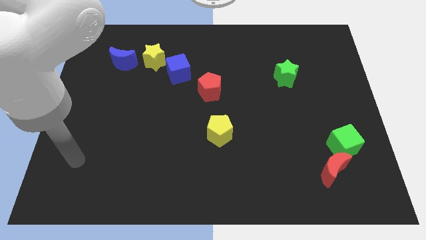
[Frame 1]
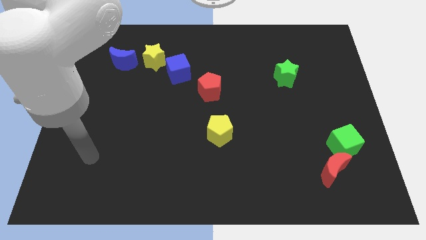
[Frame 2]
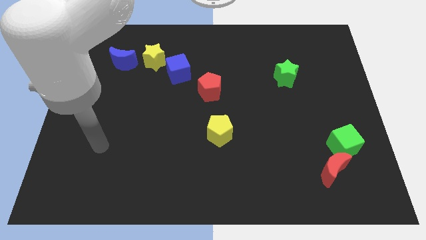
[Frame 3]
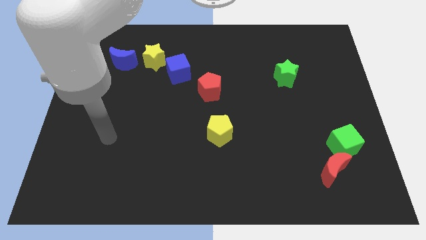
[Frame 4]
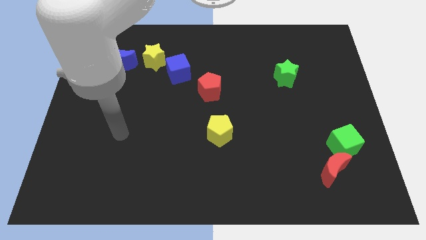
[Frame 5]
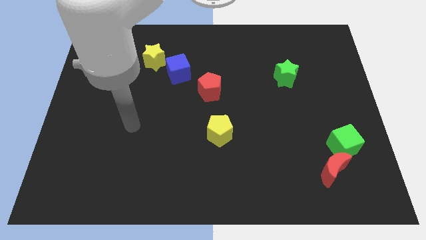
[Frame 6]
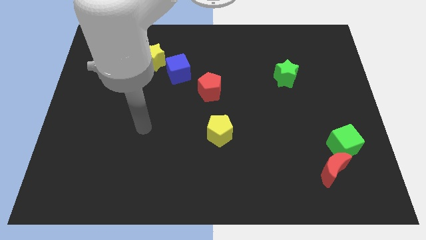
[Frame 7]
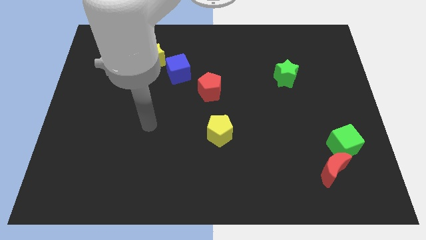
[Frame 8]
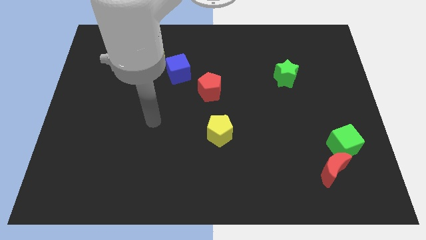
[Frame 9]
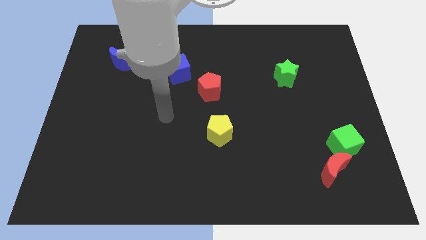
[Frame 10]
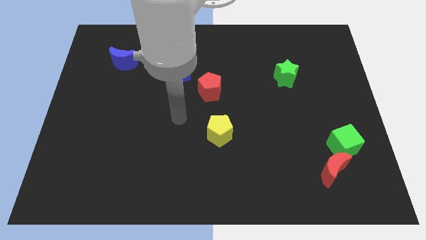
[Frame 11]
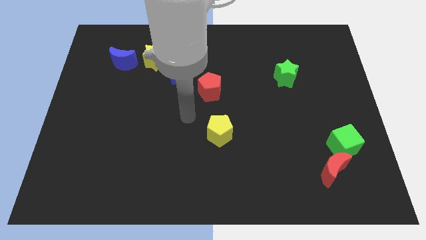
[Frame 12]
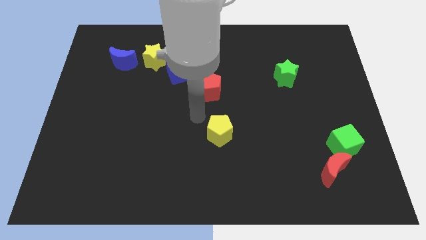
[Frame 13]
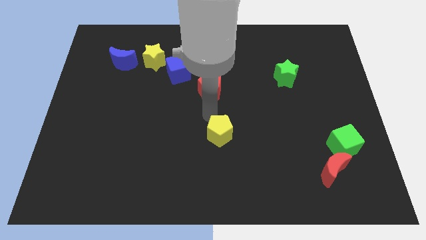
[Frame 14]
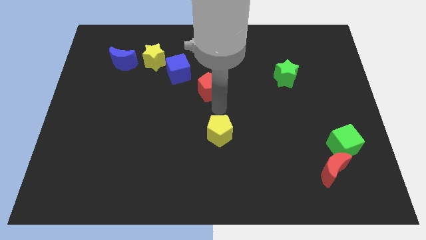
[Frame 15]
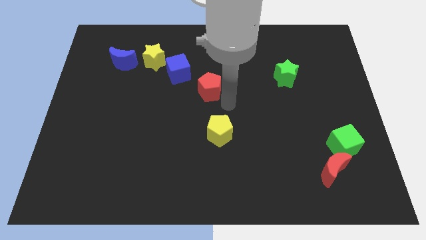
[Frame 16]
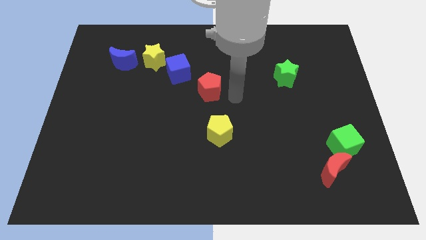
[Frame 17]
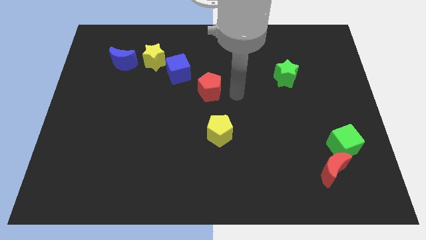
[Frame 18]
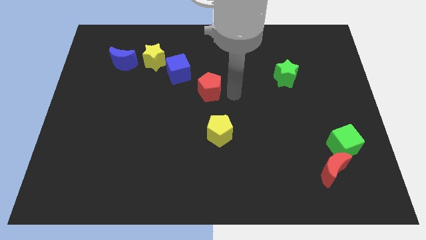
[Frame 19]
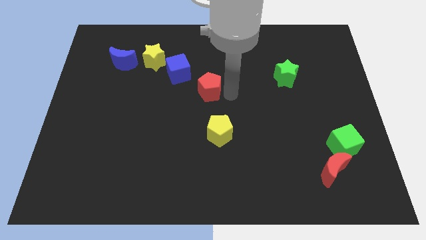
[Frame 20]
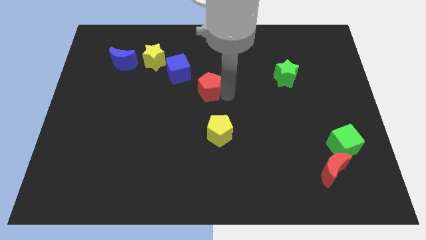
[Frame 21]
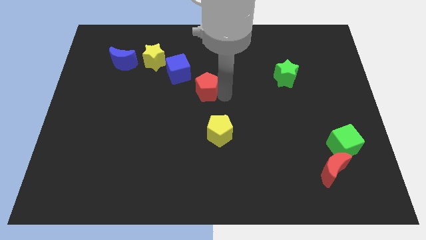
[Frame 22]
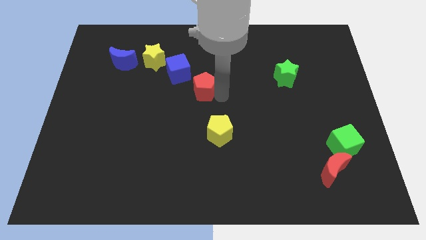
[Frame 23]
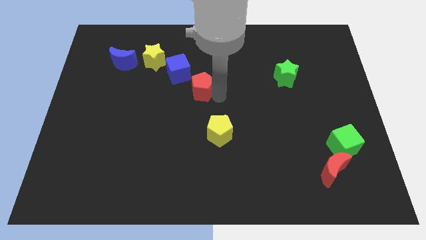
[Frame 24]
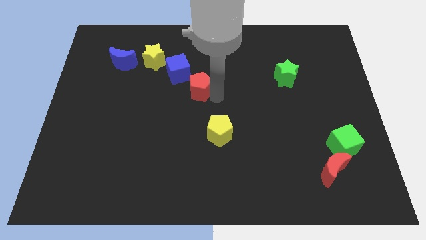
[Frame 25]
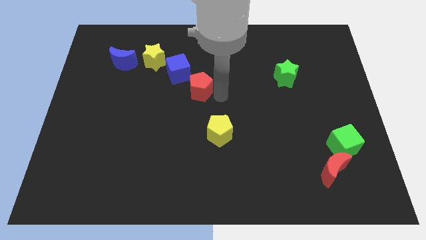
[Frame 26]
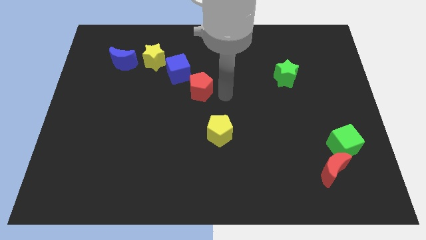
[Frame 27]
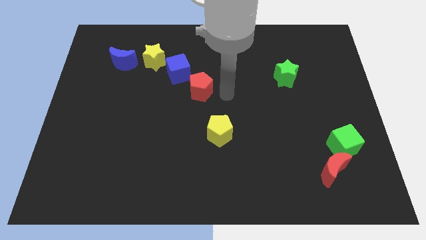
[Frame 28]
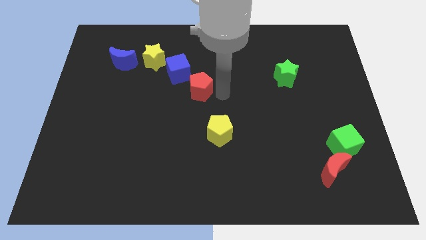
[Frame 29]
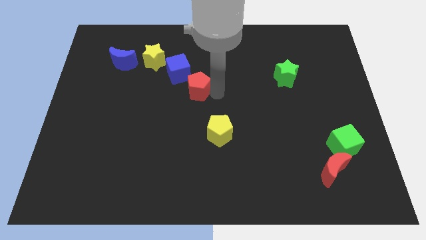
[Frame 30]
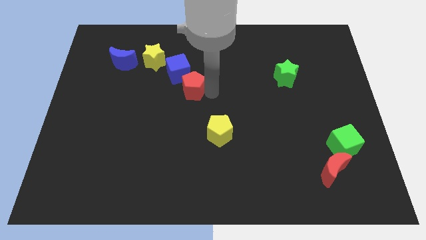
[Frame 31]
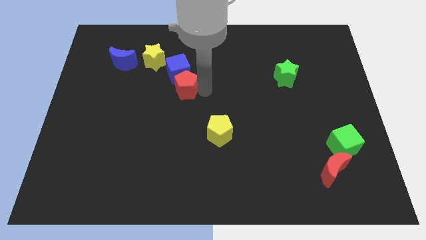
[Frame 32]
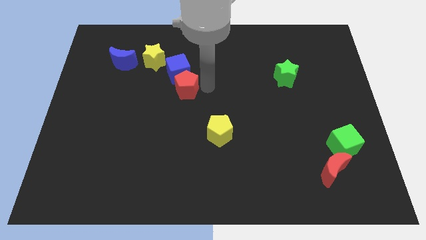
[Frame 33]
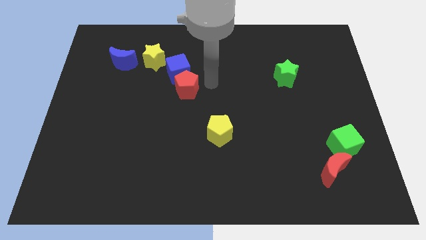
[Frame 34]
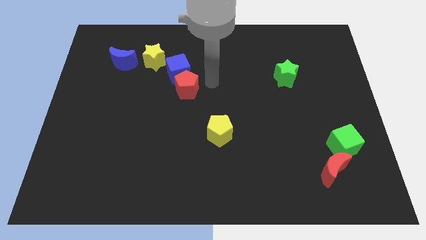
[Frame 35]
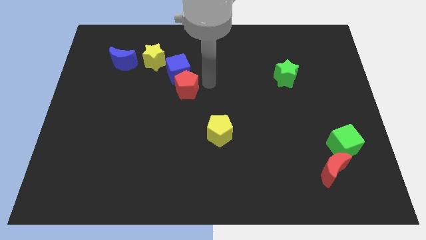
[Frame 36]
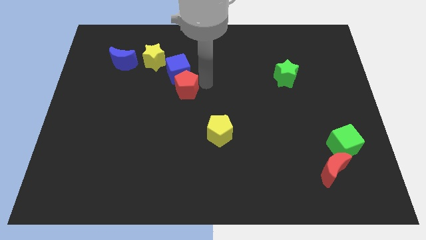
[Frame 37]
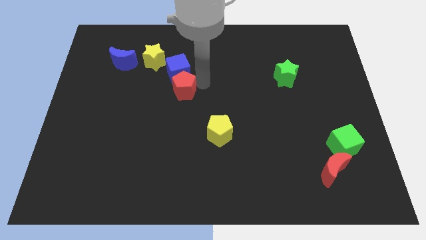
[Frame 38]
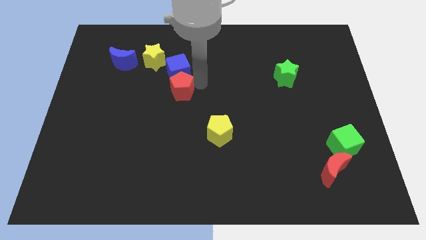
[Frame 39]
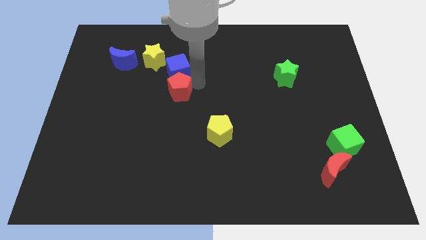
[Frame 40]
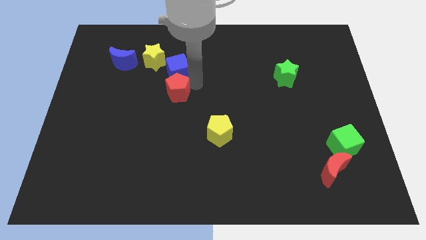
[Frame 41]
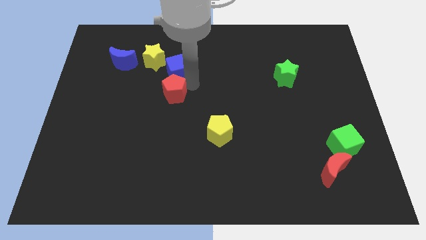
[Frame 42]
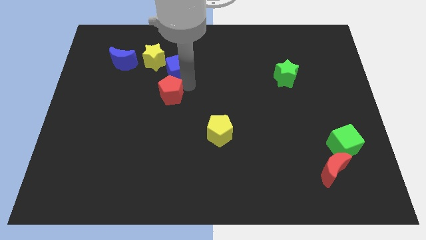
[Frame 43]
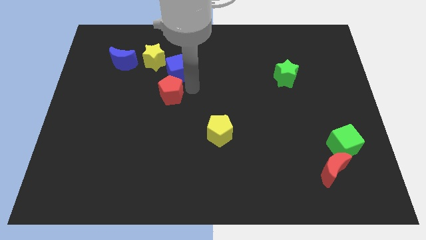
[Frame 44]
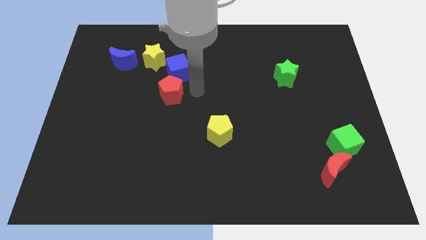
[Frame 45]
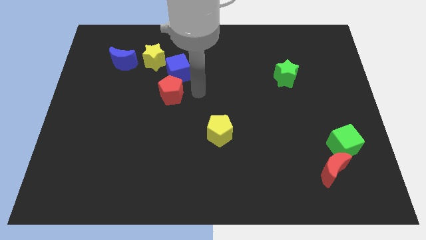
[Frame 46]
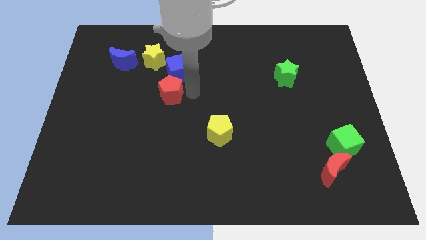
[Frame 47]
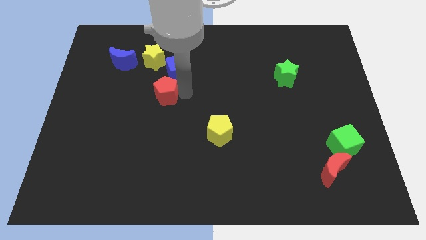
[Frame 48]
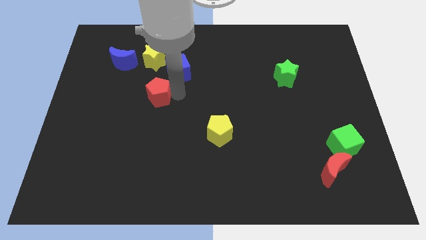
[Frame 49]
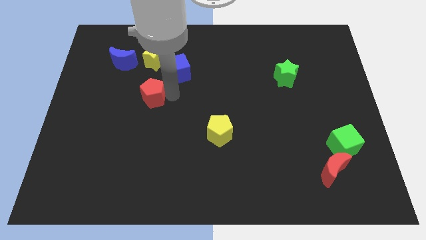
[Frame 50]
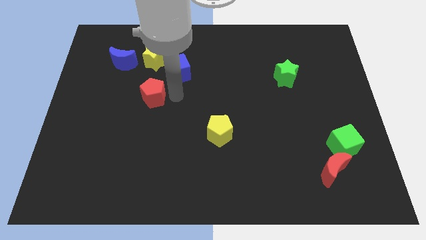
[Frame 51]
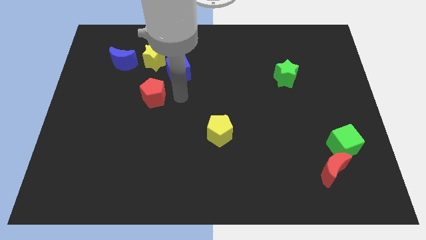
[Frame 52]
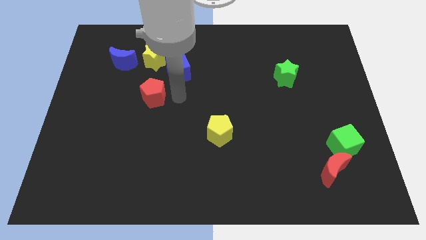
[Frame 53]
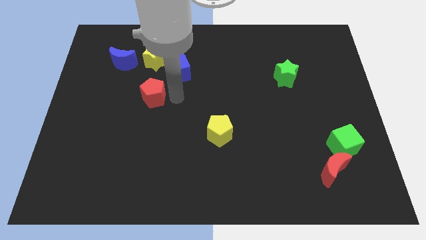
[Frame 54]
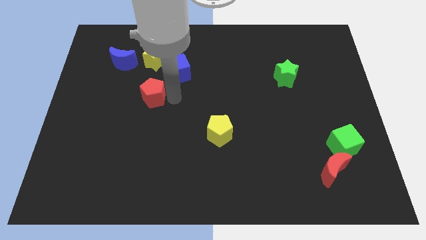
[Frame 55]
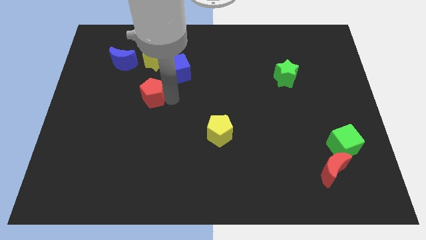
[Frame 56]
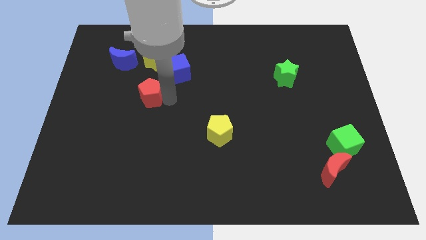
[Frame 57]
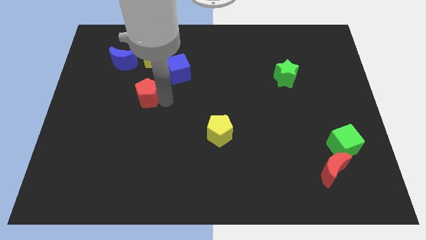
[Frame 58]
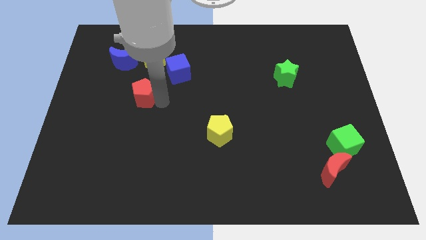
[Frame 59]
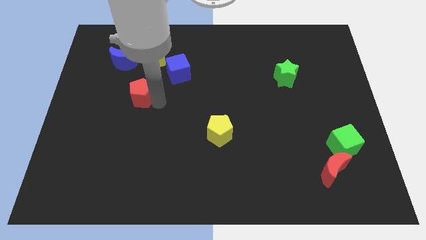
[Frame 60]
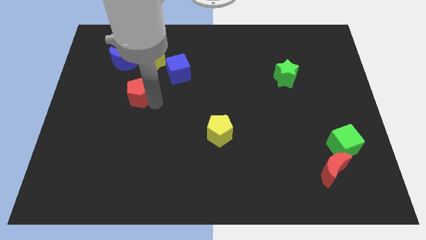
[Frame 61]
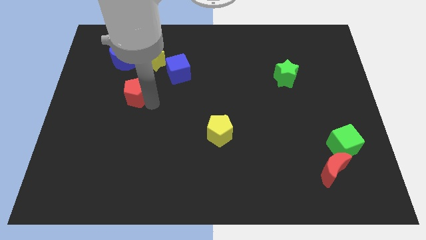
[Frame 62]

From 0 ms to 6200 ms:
slide the red pentagon below the blue moon

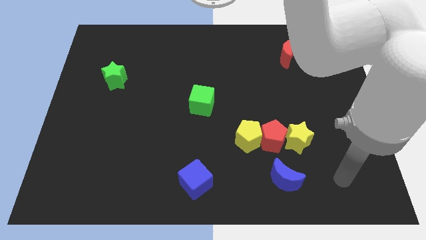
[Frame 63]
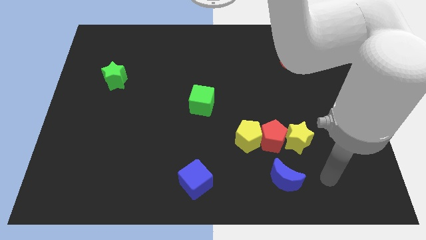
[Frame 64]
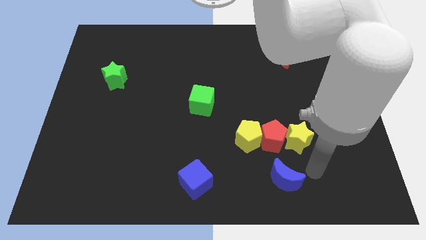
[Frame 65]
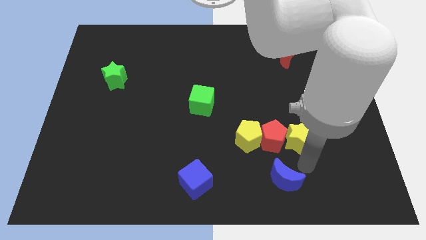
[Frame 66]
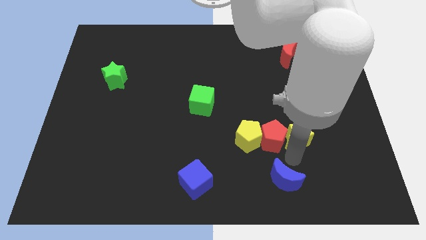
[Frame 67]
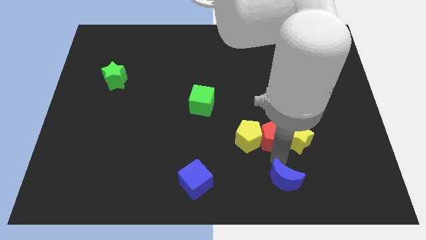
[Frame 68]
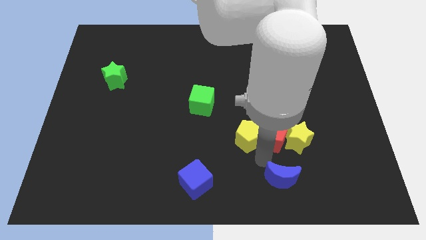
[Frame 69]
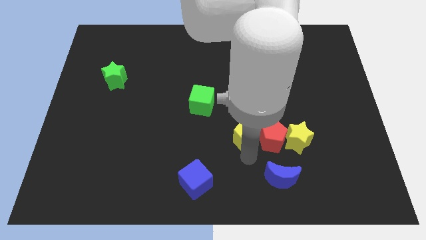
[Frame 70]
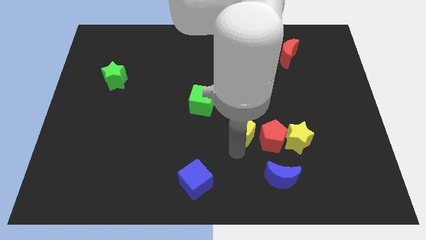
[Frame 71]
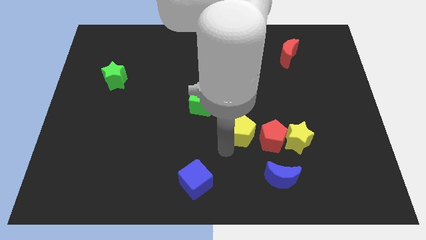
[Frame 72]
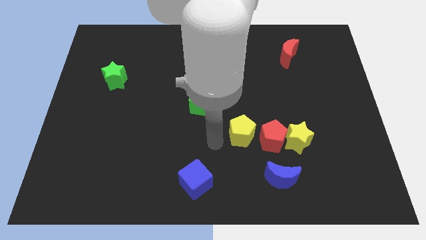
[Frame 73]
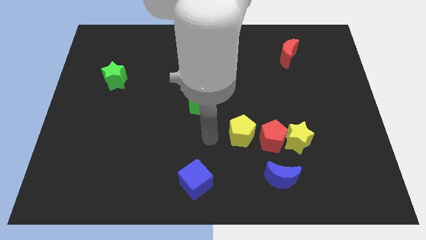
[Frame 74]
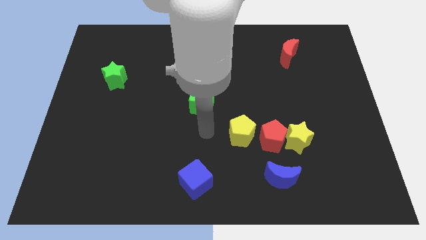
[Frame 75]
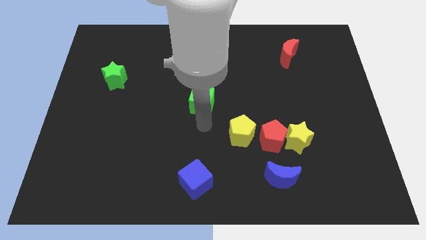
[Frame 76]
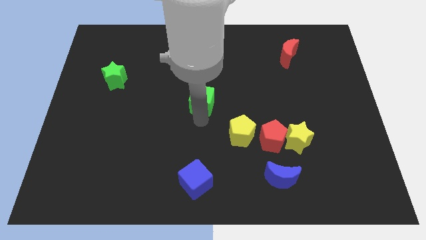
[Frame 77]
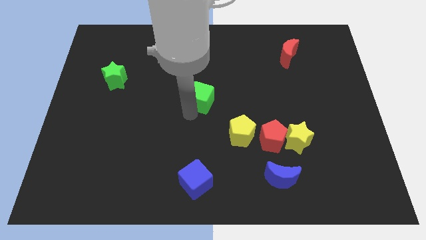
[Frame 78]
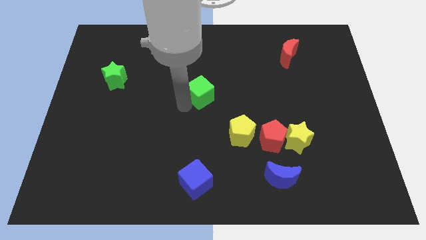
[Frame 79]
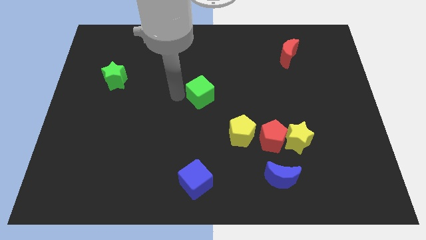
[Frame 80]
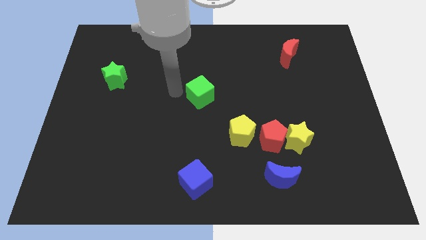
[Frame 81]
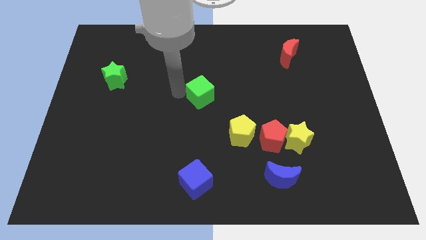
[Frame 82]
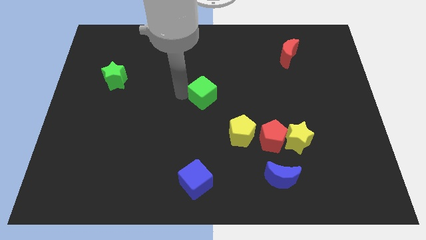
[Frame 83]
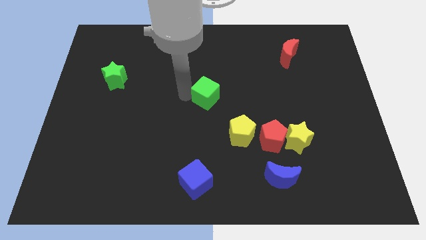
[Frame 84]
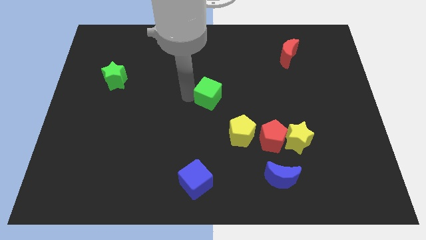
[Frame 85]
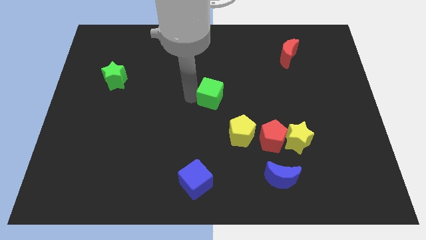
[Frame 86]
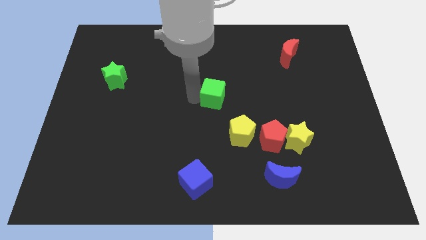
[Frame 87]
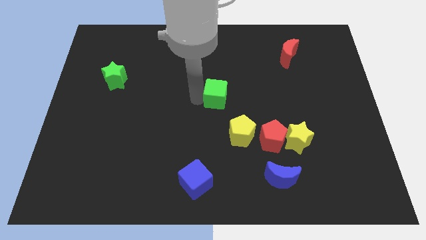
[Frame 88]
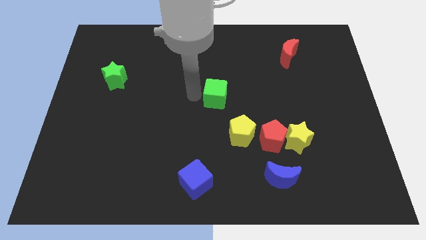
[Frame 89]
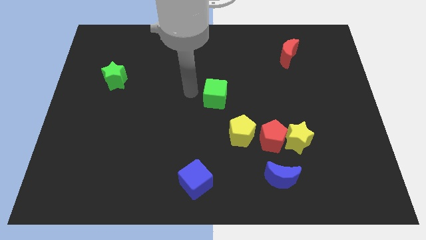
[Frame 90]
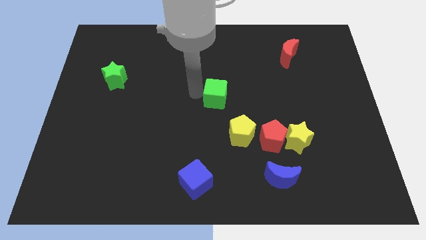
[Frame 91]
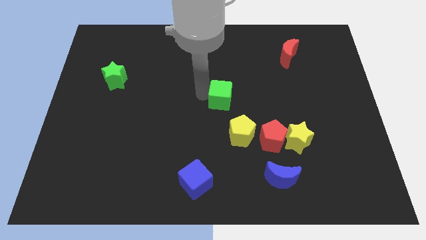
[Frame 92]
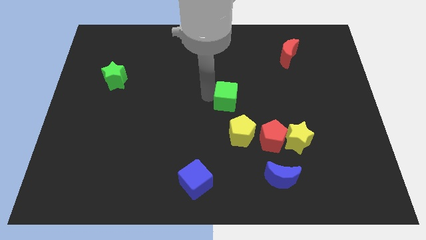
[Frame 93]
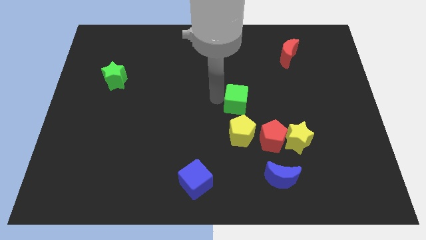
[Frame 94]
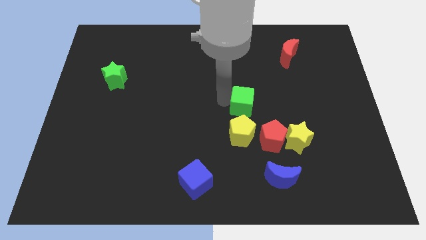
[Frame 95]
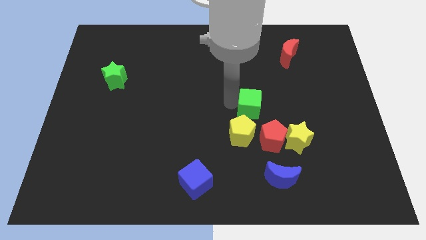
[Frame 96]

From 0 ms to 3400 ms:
slide the green cube to the top of the red pentagon
